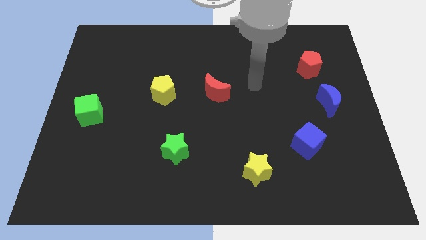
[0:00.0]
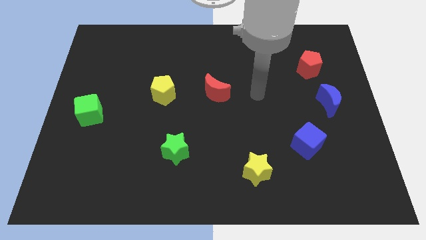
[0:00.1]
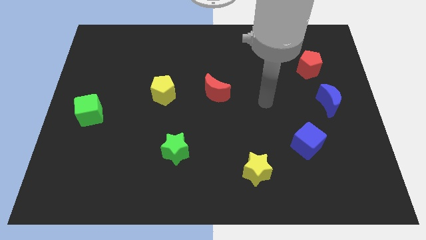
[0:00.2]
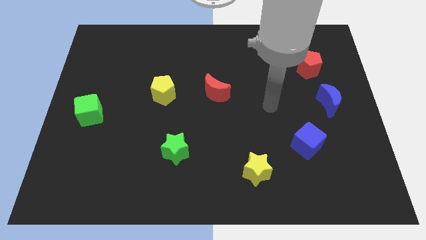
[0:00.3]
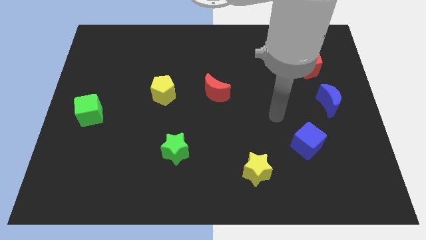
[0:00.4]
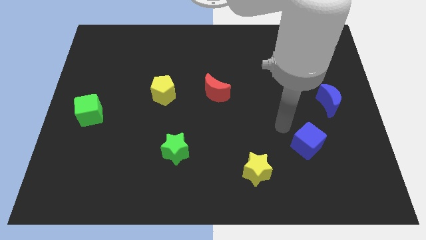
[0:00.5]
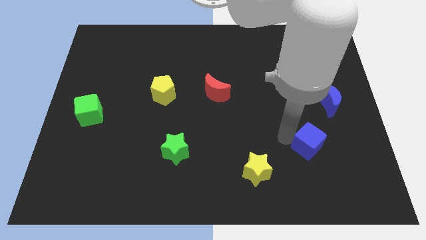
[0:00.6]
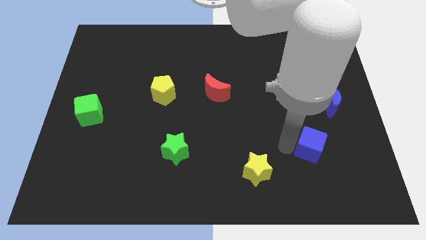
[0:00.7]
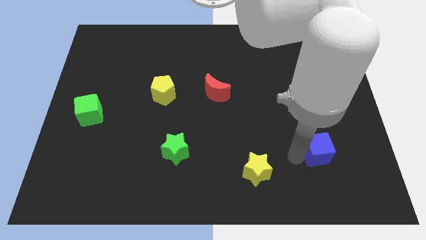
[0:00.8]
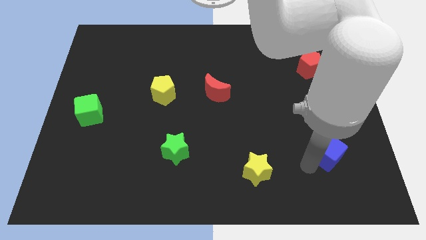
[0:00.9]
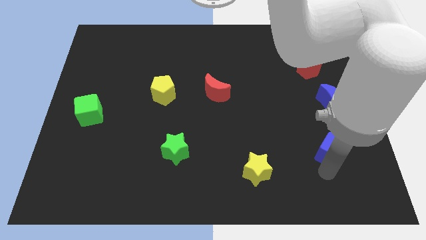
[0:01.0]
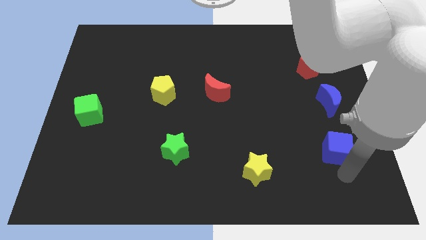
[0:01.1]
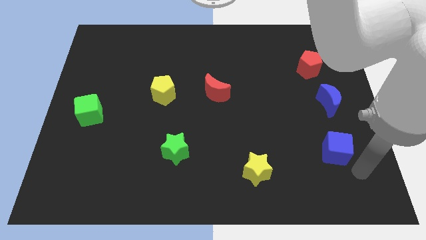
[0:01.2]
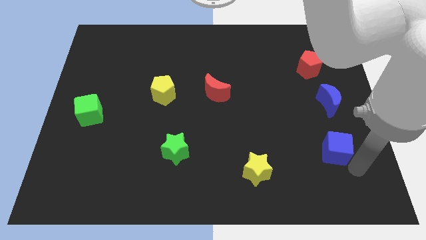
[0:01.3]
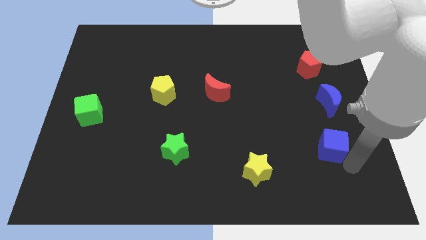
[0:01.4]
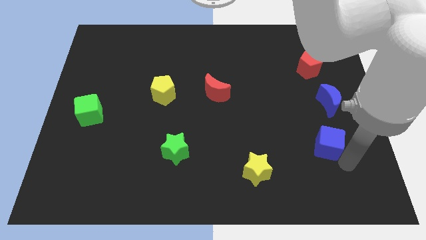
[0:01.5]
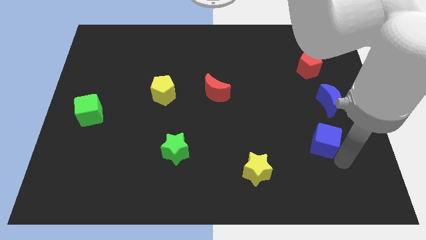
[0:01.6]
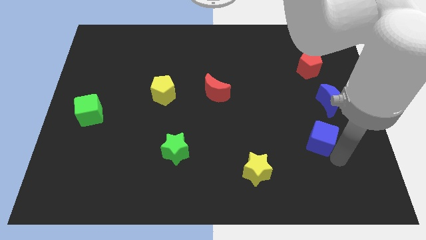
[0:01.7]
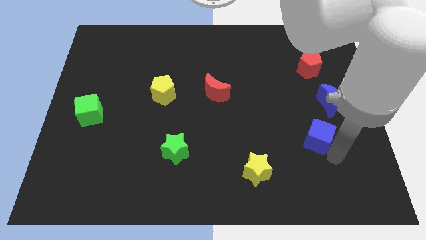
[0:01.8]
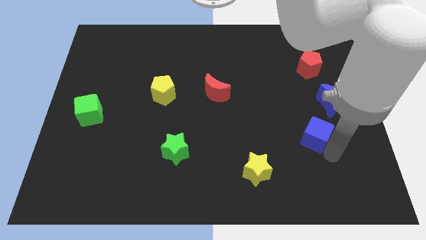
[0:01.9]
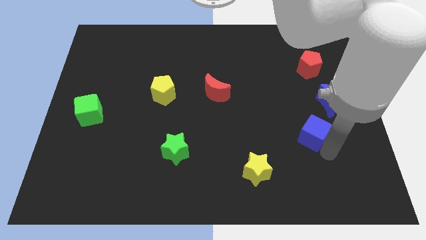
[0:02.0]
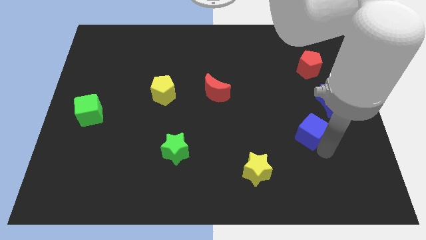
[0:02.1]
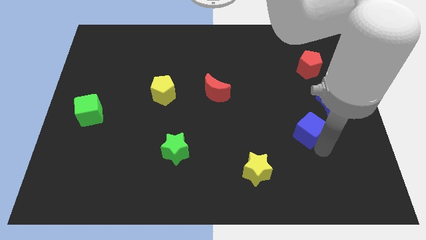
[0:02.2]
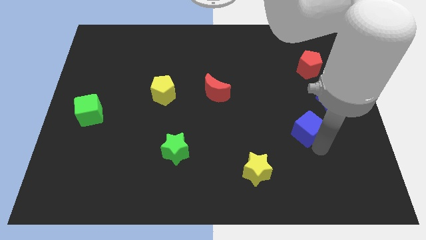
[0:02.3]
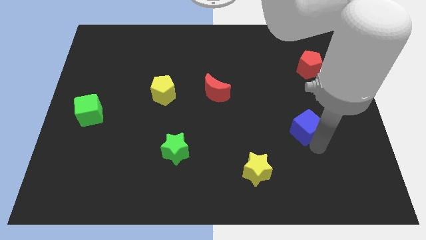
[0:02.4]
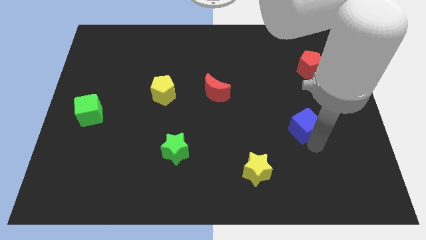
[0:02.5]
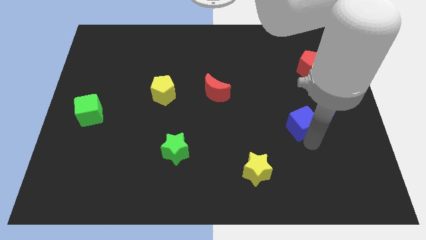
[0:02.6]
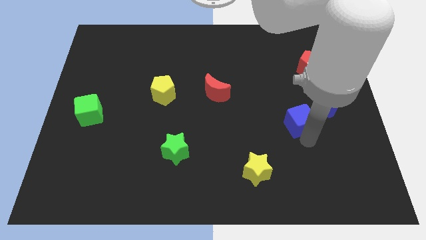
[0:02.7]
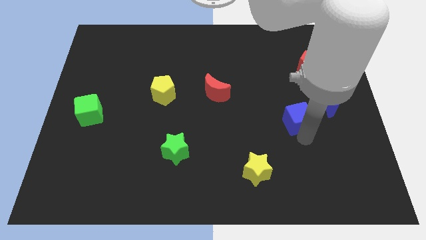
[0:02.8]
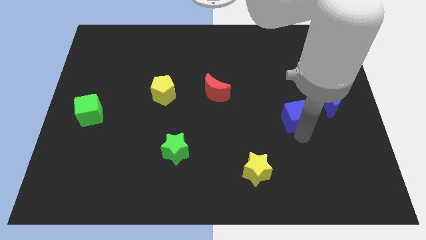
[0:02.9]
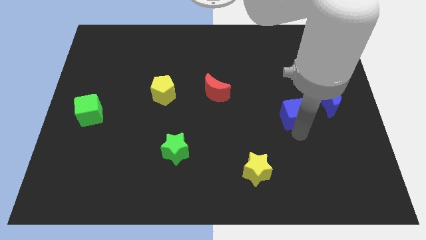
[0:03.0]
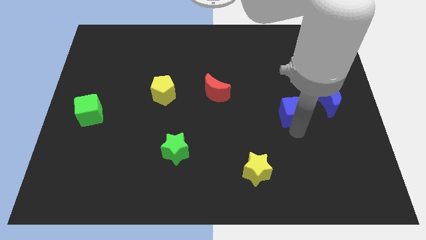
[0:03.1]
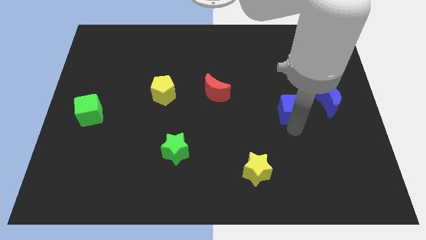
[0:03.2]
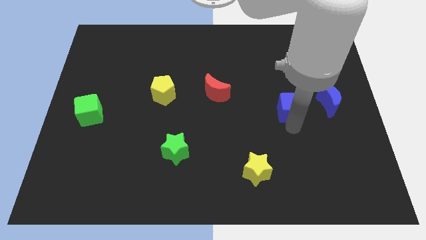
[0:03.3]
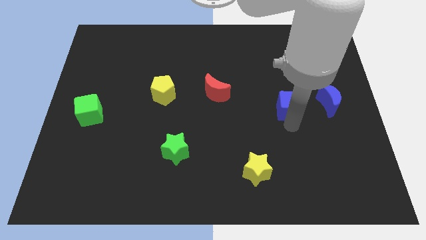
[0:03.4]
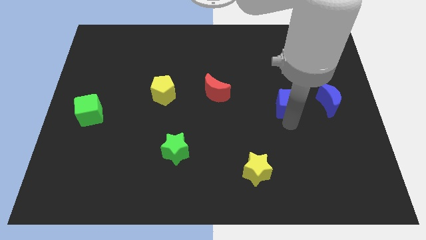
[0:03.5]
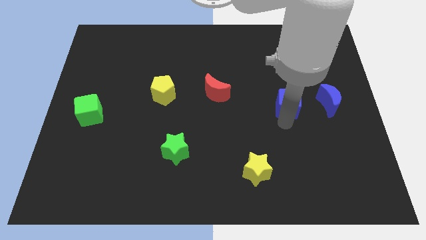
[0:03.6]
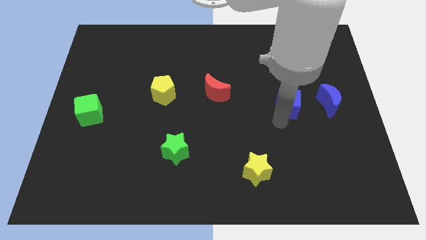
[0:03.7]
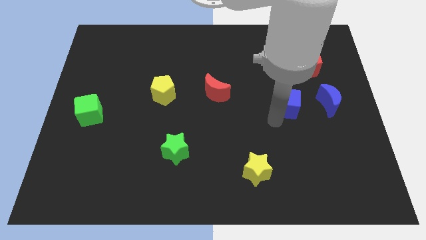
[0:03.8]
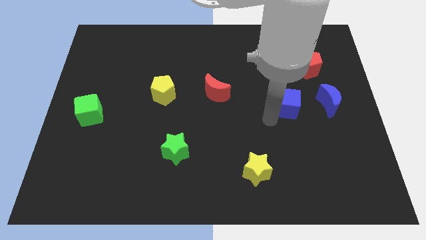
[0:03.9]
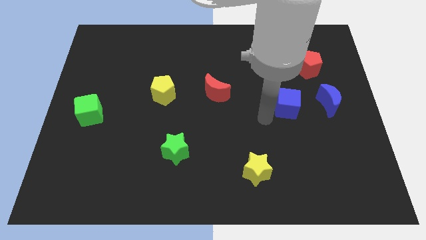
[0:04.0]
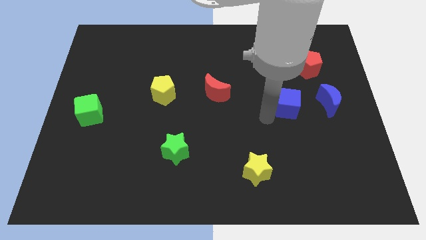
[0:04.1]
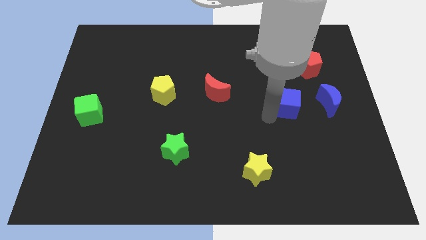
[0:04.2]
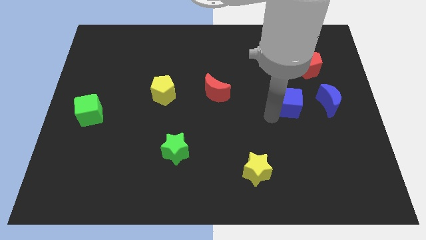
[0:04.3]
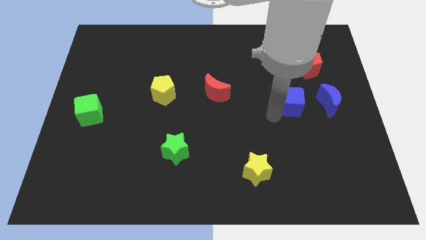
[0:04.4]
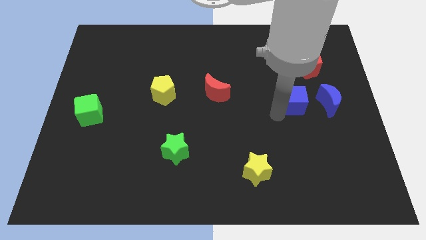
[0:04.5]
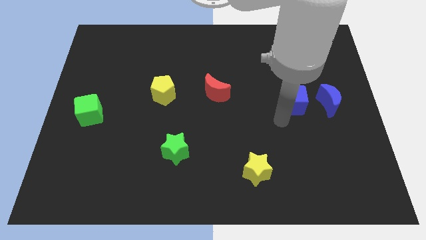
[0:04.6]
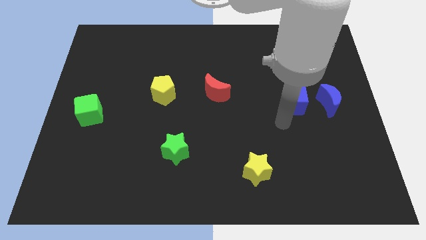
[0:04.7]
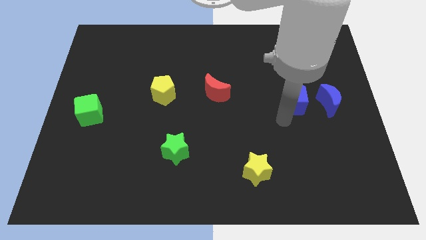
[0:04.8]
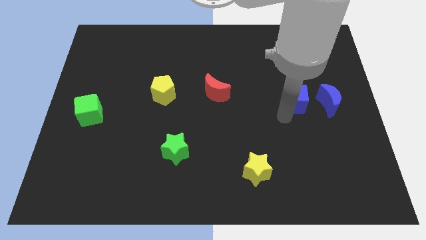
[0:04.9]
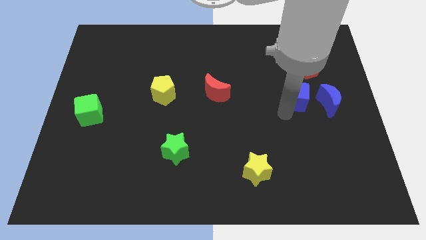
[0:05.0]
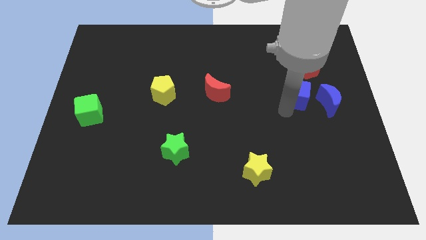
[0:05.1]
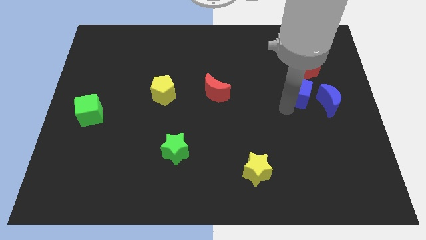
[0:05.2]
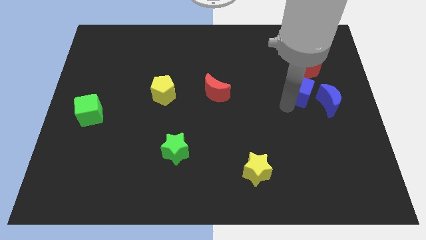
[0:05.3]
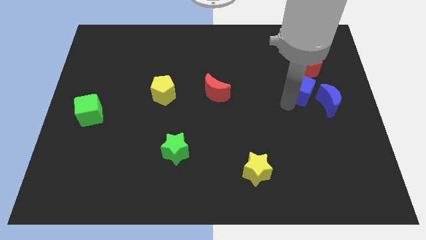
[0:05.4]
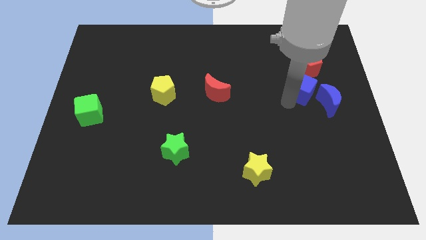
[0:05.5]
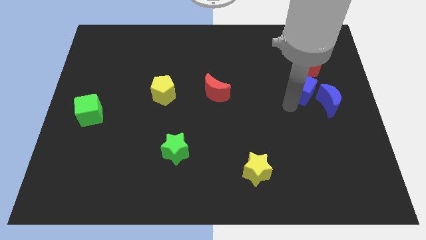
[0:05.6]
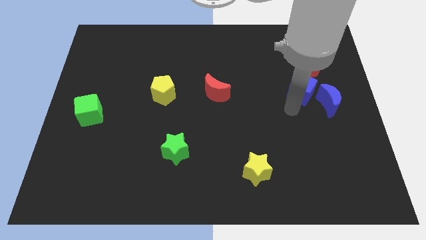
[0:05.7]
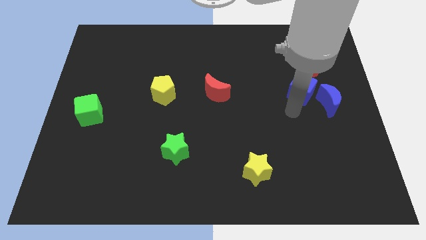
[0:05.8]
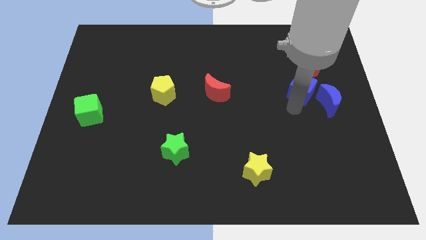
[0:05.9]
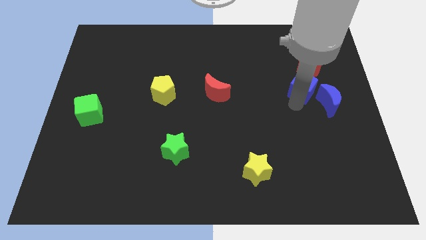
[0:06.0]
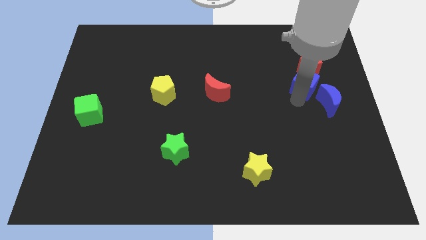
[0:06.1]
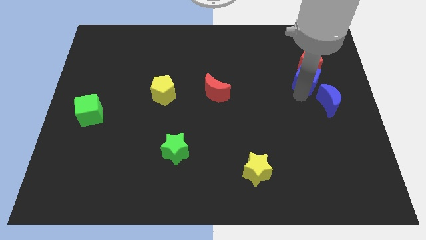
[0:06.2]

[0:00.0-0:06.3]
push the blue cube close to the red pentagon
